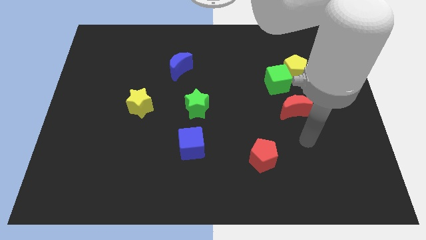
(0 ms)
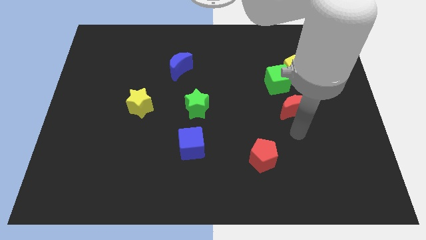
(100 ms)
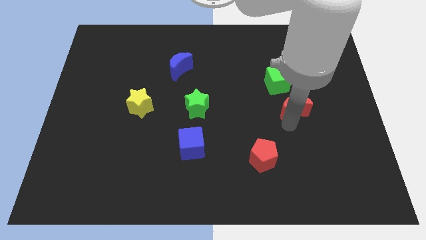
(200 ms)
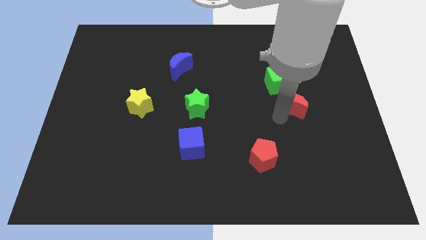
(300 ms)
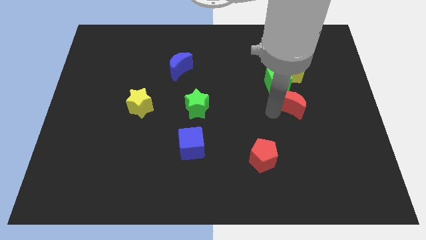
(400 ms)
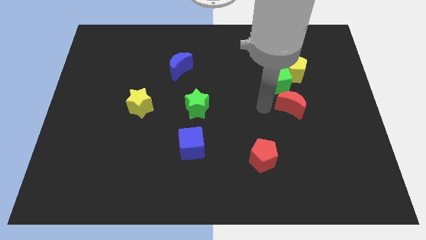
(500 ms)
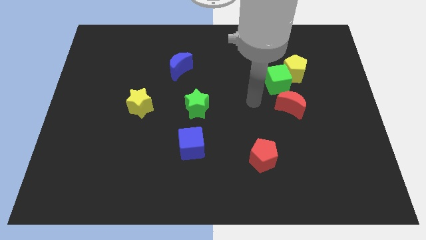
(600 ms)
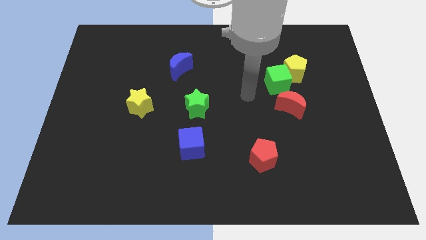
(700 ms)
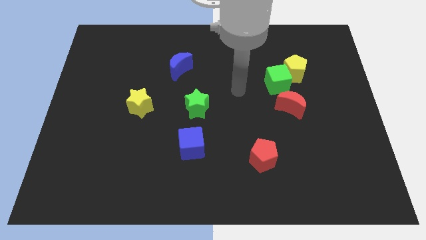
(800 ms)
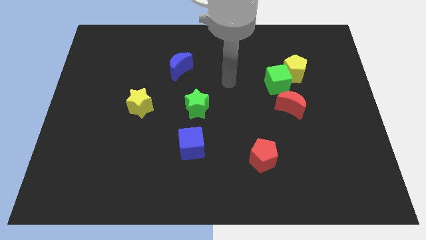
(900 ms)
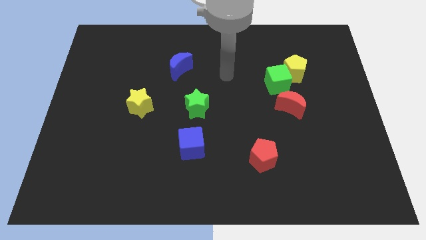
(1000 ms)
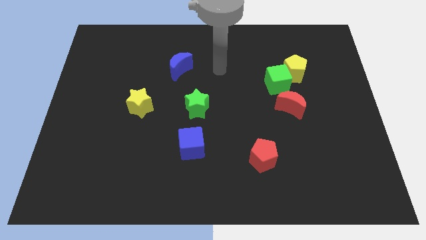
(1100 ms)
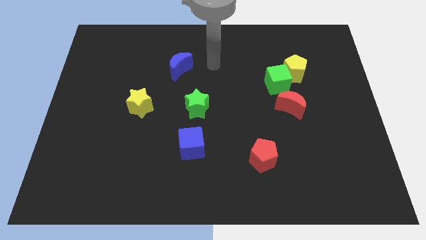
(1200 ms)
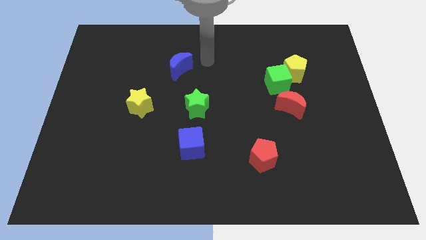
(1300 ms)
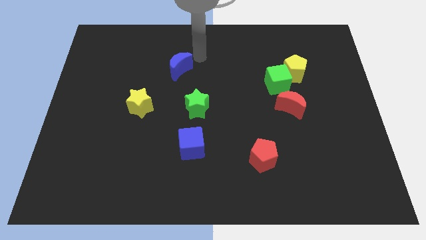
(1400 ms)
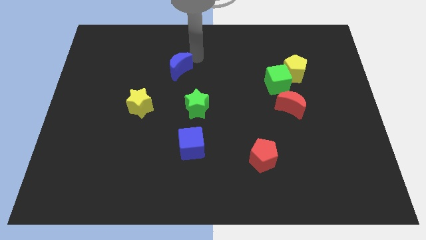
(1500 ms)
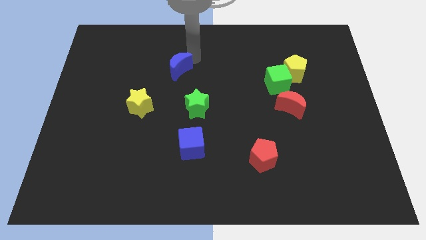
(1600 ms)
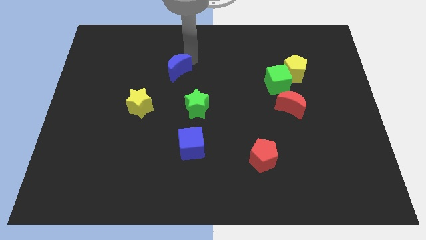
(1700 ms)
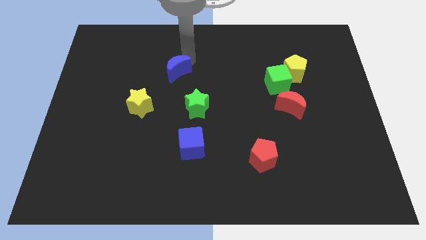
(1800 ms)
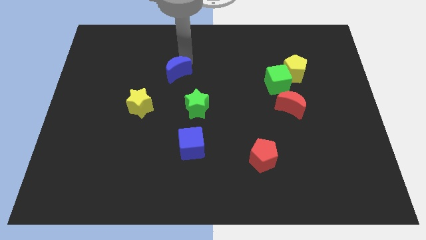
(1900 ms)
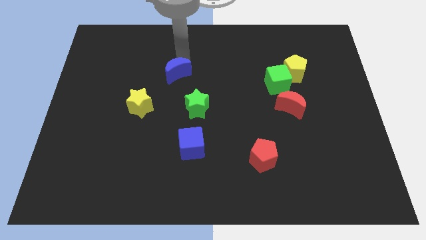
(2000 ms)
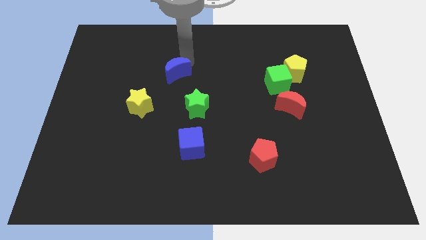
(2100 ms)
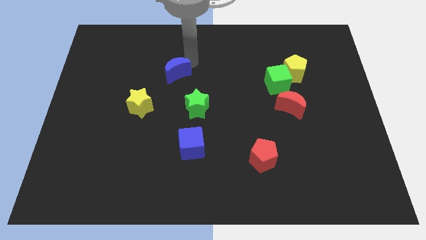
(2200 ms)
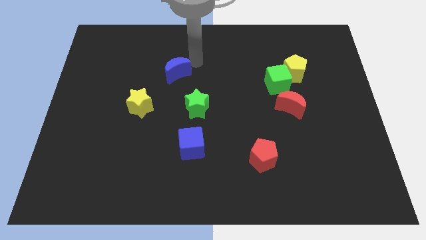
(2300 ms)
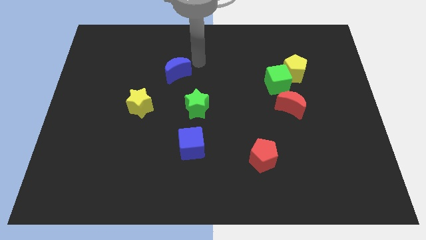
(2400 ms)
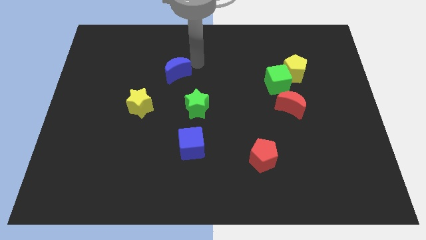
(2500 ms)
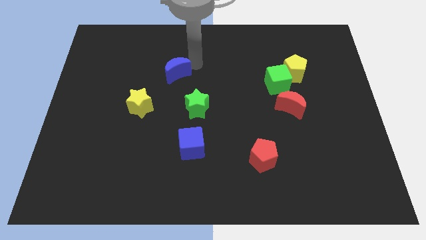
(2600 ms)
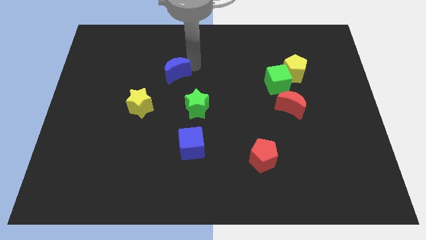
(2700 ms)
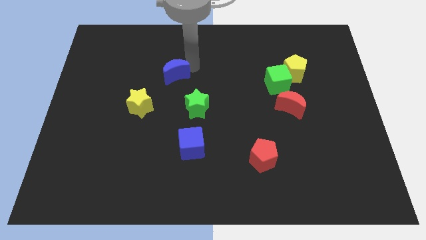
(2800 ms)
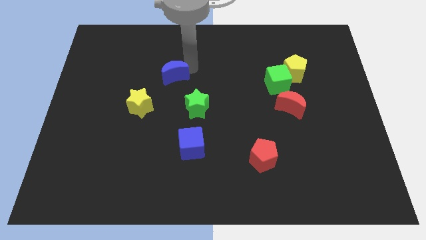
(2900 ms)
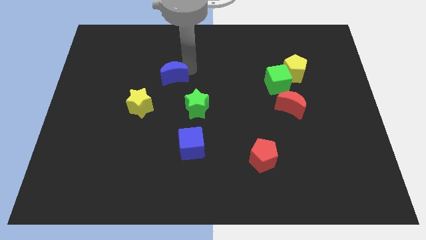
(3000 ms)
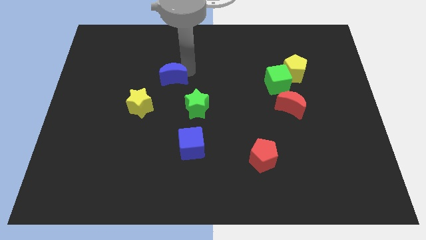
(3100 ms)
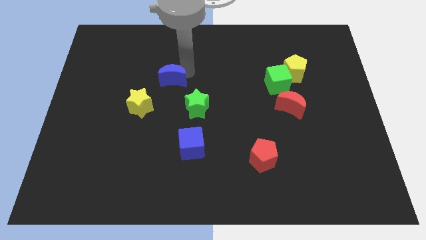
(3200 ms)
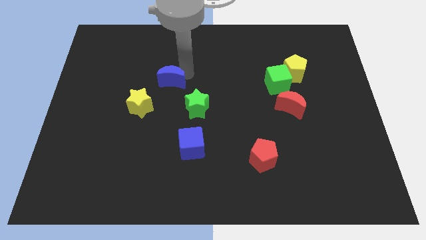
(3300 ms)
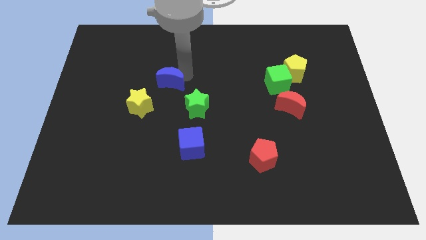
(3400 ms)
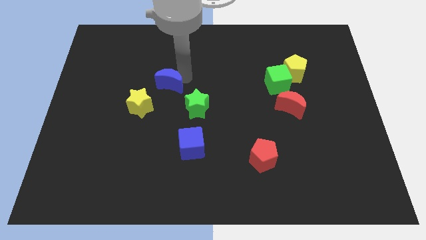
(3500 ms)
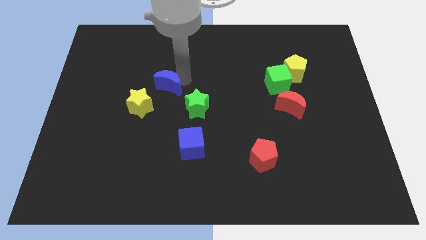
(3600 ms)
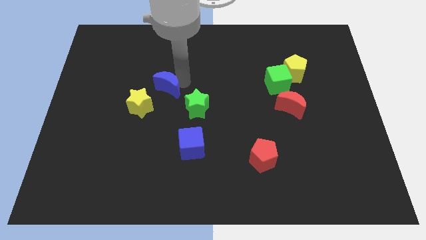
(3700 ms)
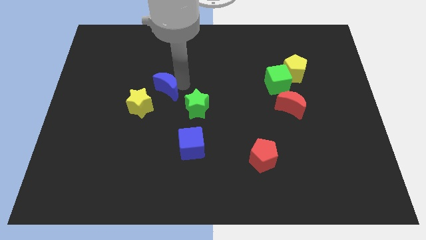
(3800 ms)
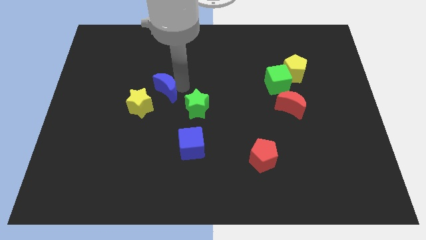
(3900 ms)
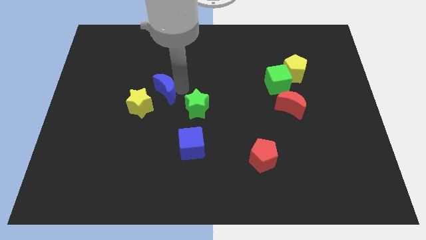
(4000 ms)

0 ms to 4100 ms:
slightly push the blue moon diagonally downwards and to the left

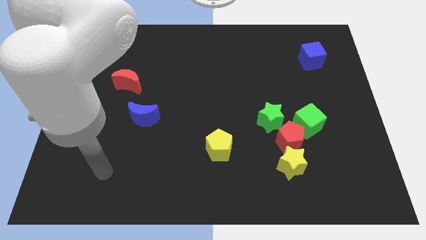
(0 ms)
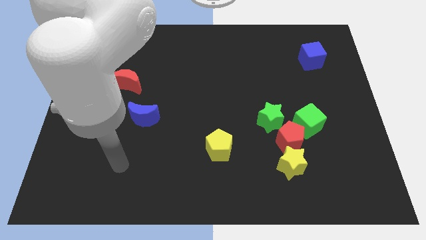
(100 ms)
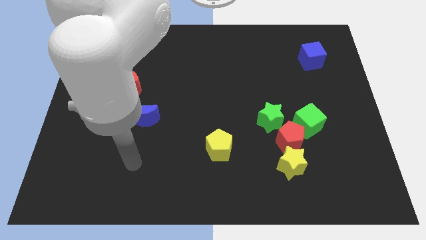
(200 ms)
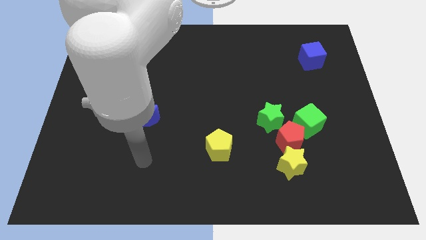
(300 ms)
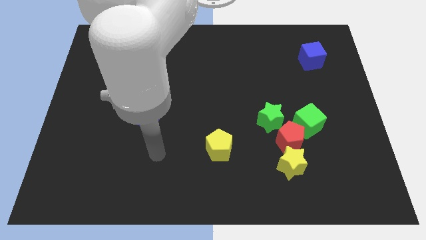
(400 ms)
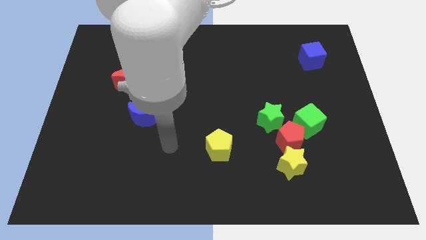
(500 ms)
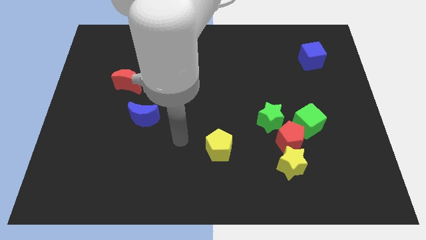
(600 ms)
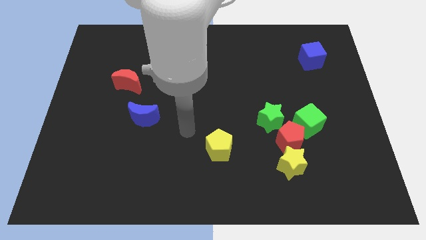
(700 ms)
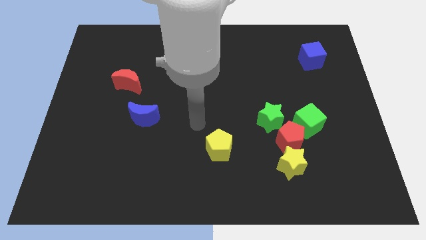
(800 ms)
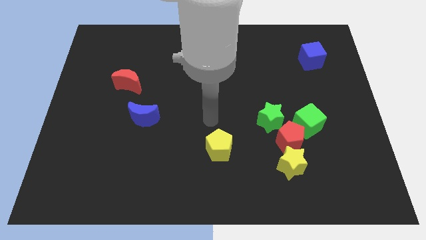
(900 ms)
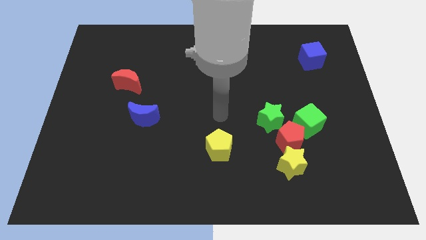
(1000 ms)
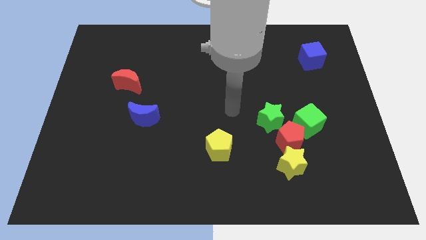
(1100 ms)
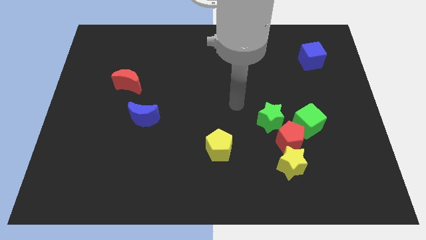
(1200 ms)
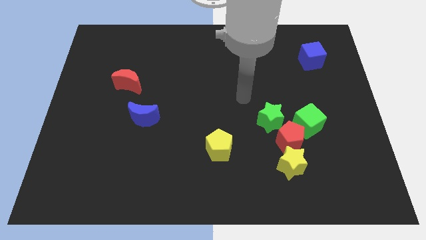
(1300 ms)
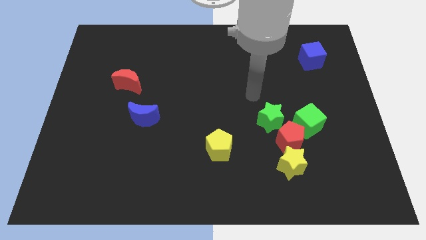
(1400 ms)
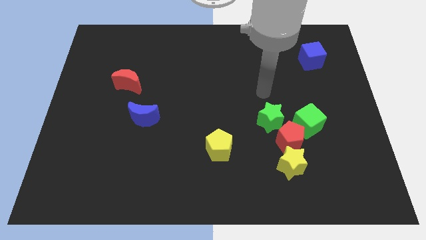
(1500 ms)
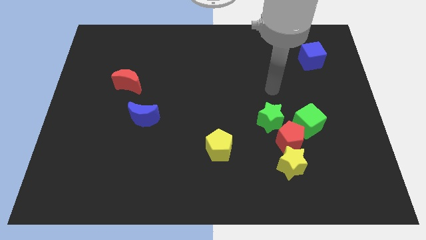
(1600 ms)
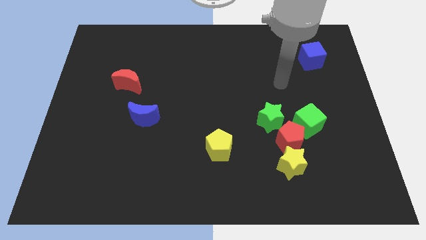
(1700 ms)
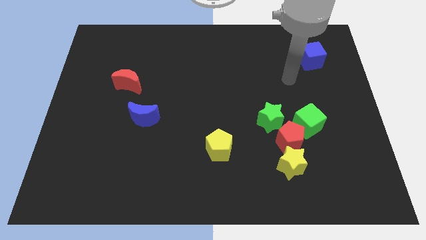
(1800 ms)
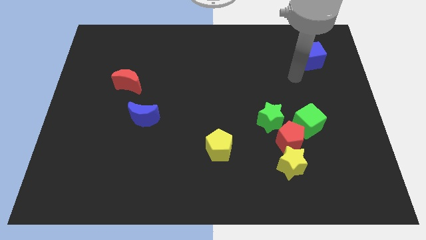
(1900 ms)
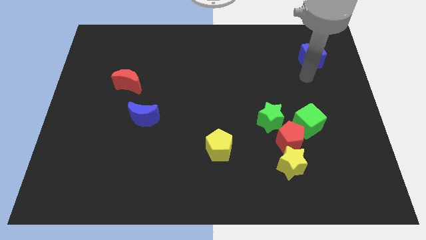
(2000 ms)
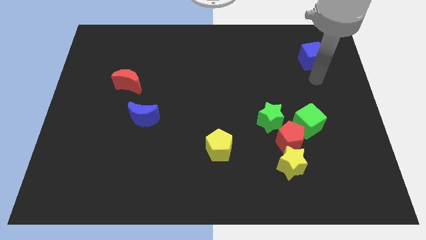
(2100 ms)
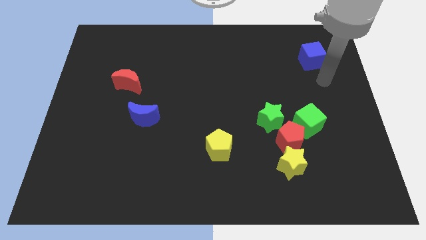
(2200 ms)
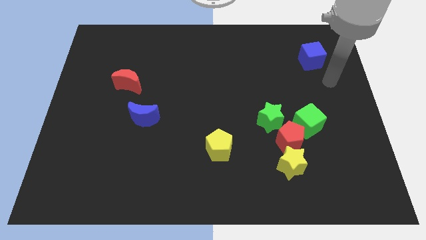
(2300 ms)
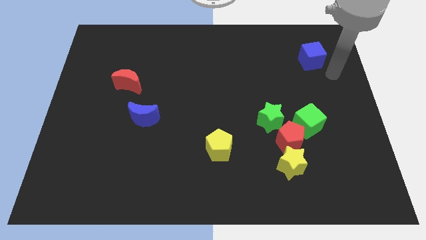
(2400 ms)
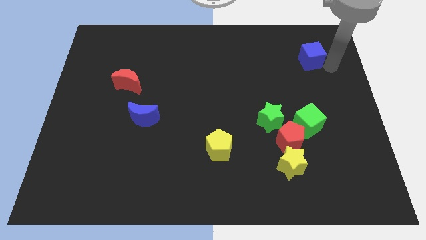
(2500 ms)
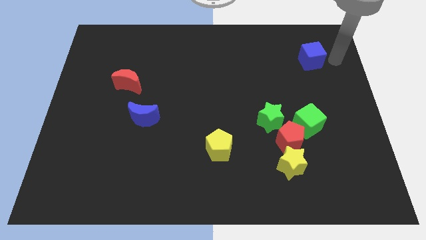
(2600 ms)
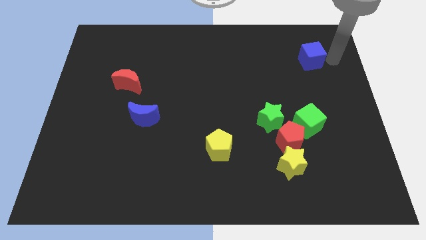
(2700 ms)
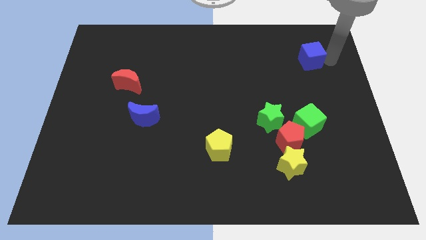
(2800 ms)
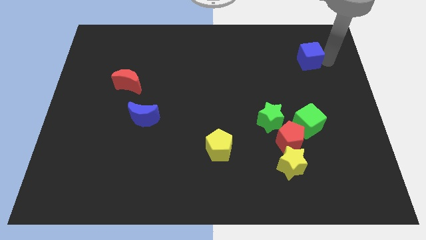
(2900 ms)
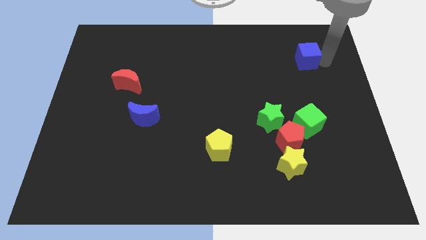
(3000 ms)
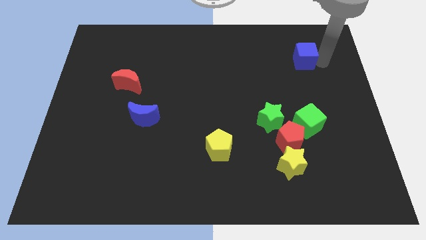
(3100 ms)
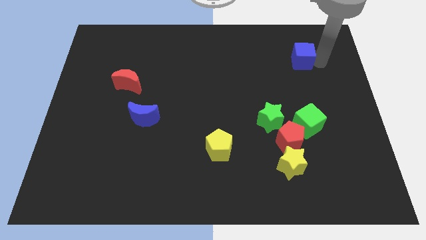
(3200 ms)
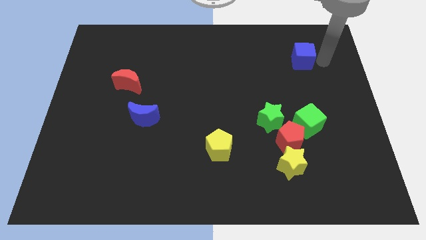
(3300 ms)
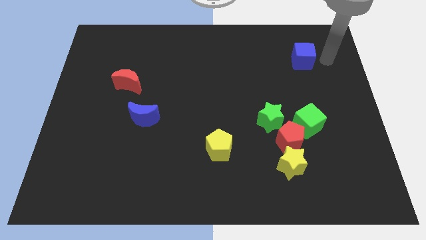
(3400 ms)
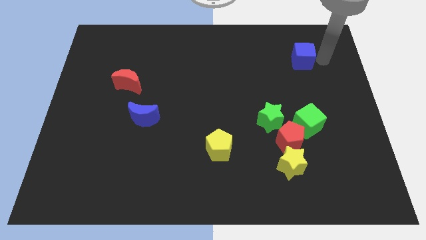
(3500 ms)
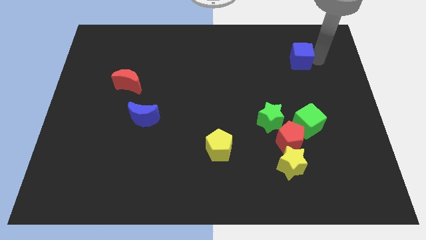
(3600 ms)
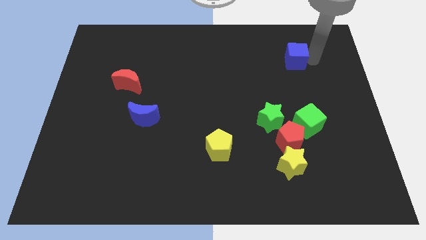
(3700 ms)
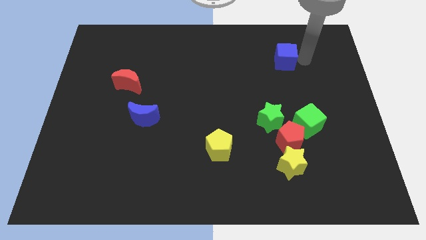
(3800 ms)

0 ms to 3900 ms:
slide the blue cube a little bit to the left
